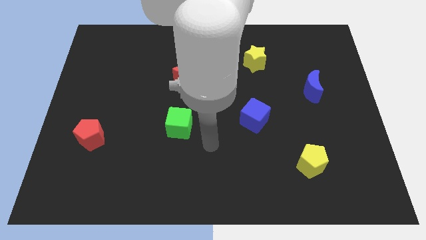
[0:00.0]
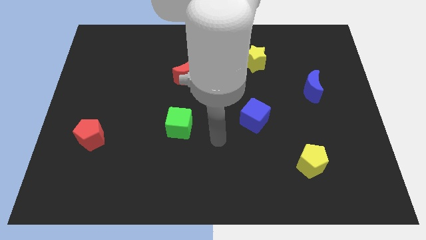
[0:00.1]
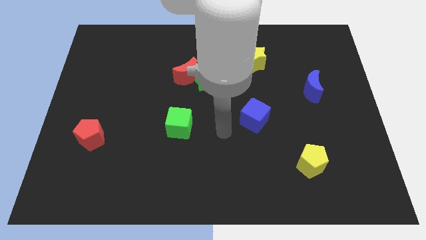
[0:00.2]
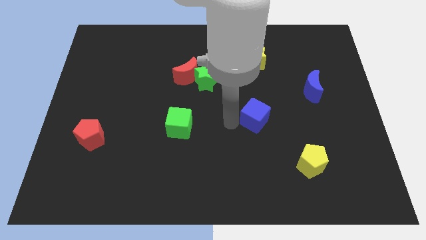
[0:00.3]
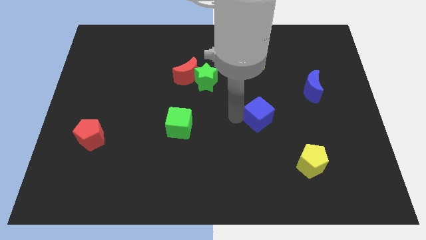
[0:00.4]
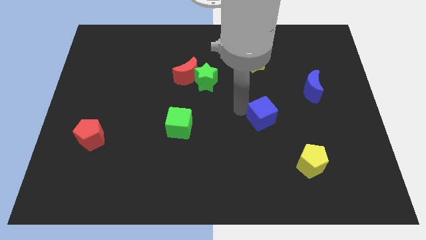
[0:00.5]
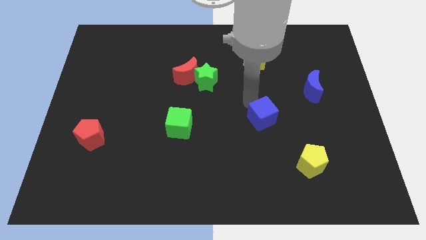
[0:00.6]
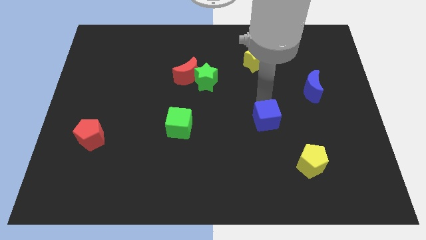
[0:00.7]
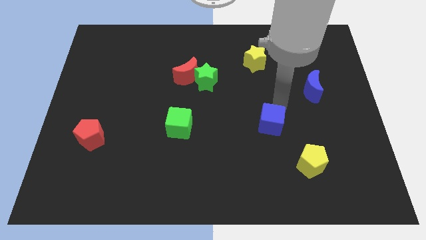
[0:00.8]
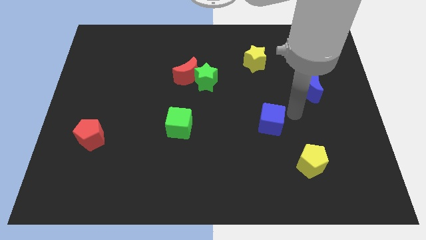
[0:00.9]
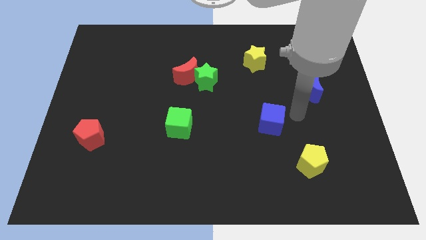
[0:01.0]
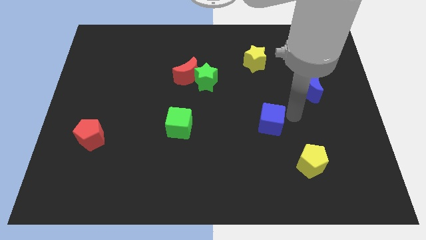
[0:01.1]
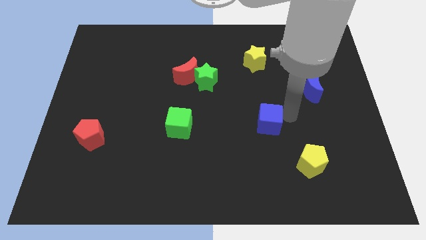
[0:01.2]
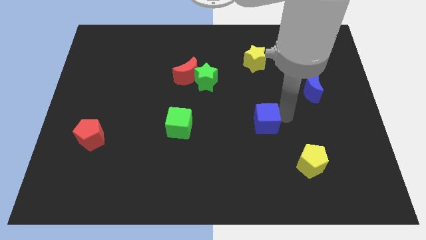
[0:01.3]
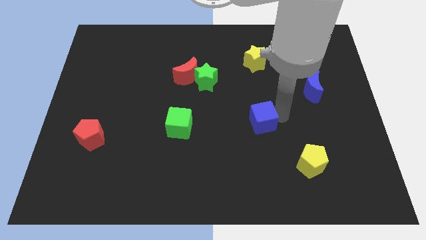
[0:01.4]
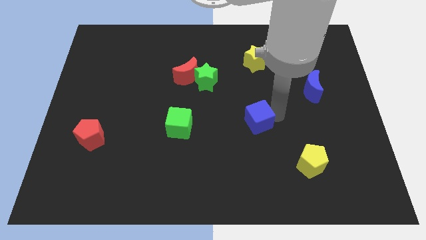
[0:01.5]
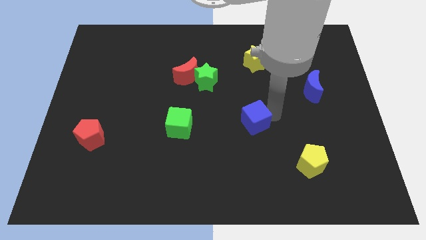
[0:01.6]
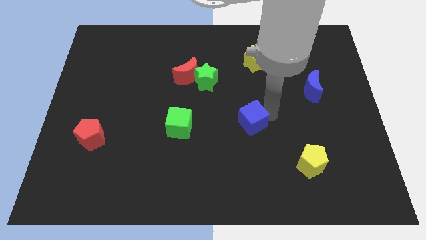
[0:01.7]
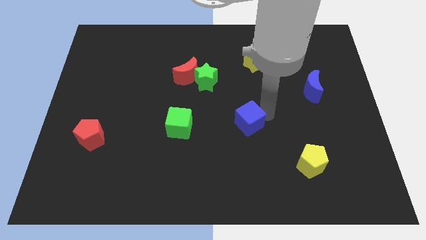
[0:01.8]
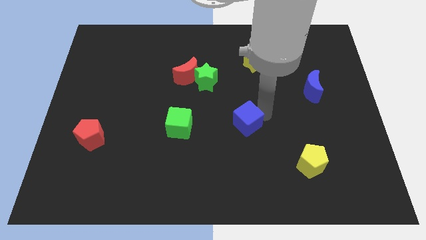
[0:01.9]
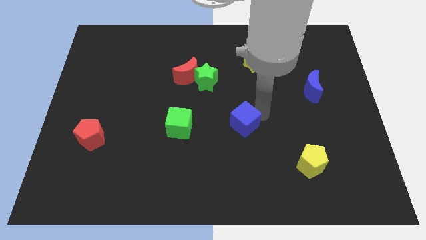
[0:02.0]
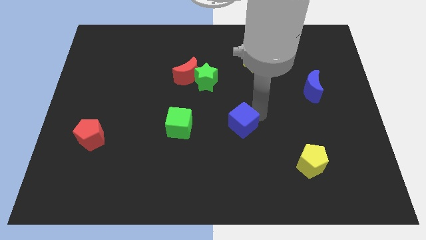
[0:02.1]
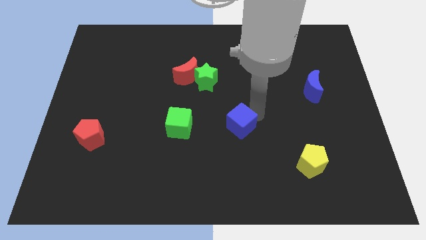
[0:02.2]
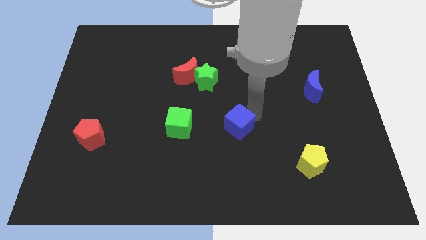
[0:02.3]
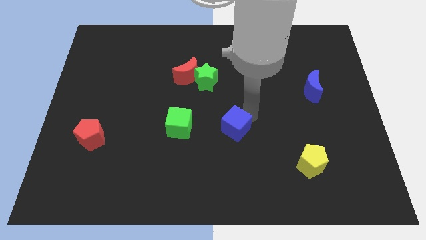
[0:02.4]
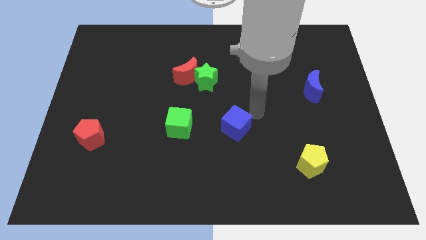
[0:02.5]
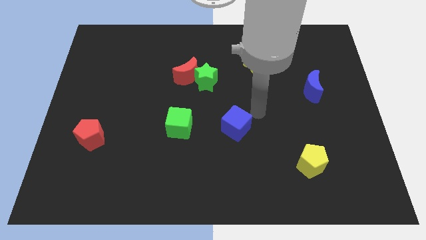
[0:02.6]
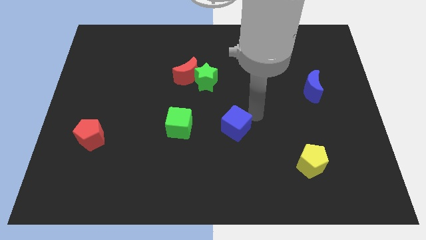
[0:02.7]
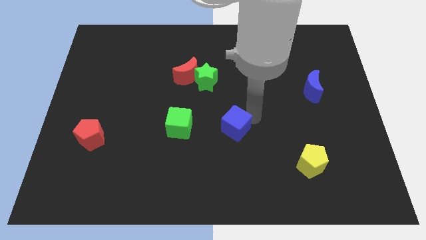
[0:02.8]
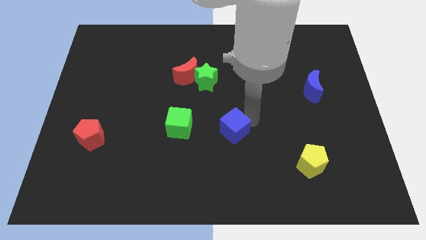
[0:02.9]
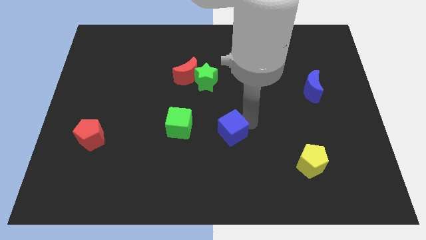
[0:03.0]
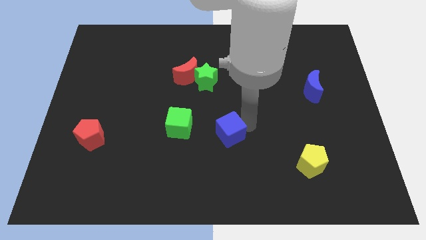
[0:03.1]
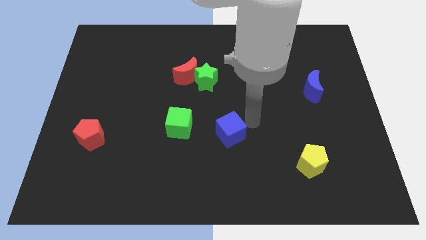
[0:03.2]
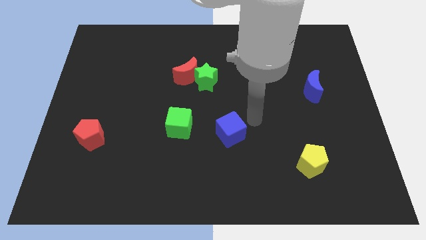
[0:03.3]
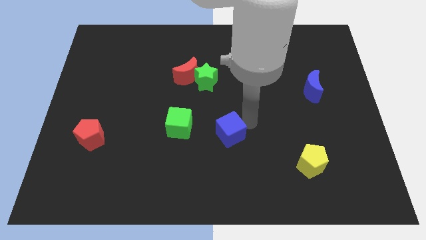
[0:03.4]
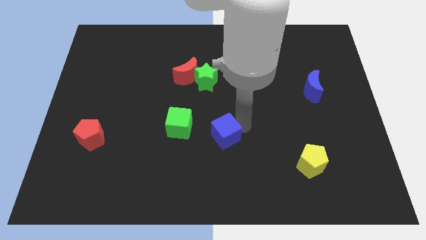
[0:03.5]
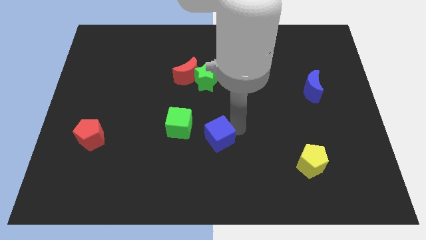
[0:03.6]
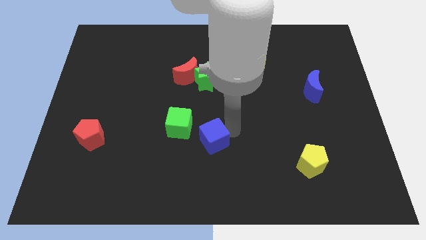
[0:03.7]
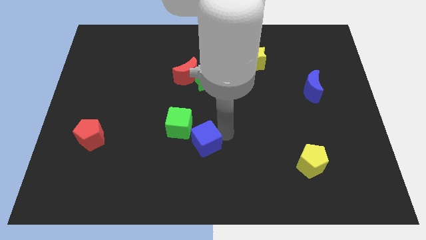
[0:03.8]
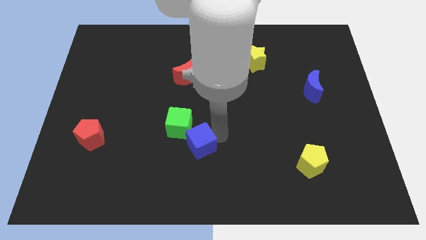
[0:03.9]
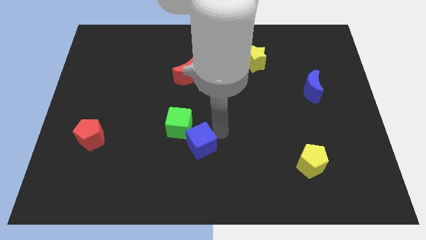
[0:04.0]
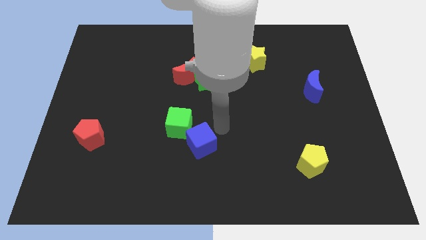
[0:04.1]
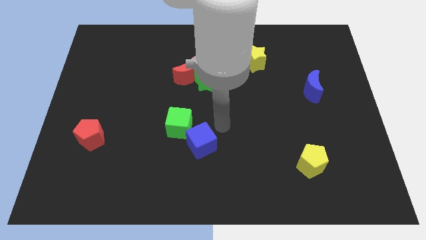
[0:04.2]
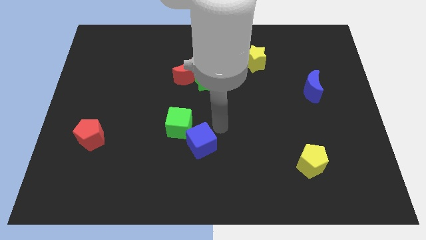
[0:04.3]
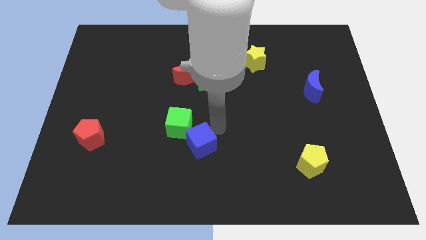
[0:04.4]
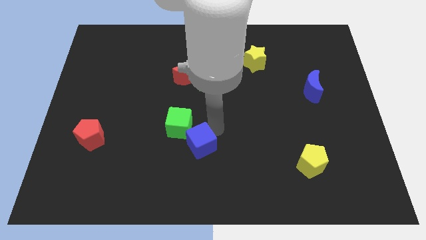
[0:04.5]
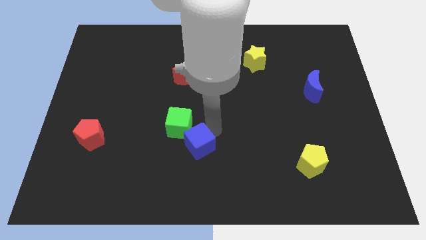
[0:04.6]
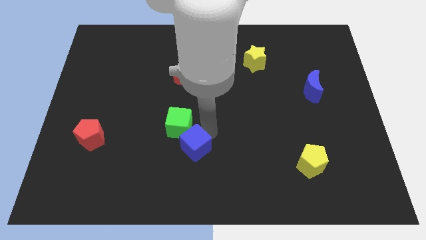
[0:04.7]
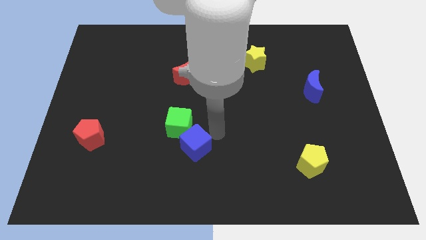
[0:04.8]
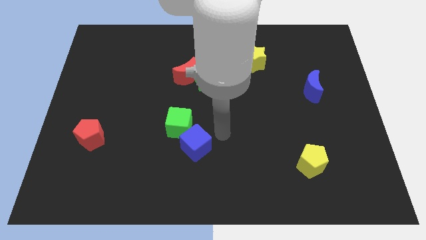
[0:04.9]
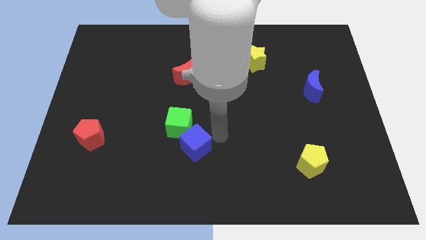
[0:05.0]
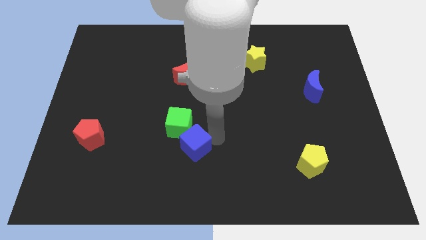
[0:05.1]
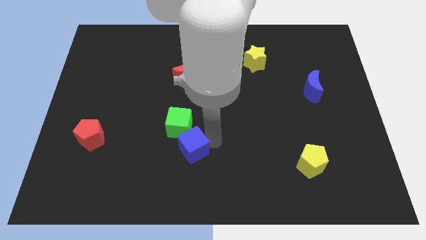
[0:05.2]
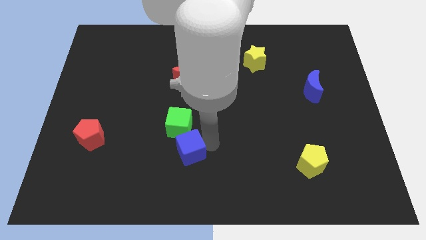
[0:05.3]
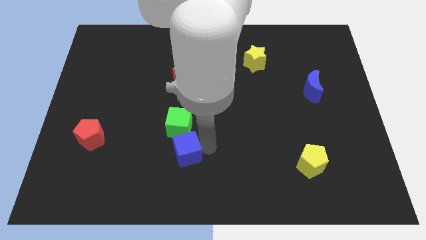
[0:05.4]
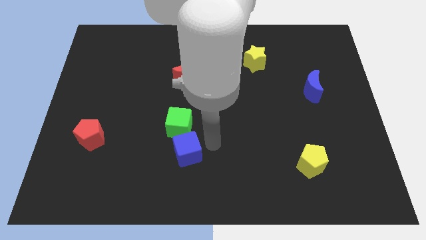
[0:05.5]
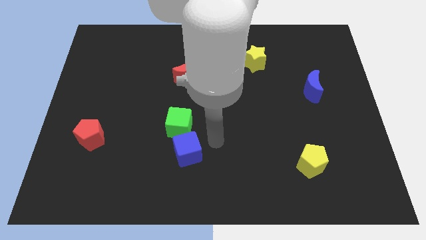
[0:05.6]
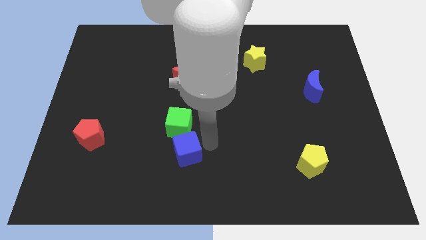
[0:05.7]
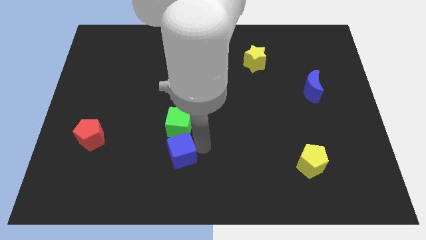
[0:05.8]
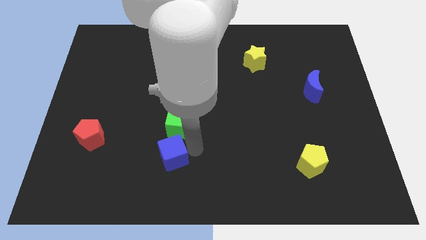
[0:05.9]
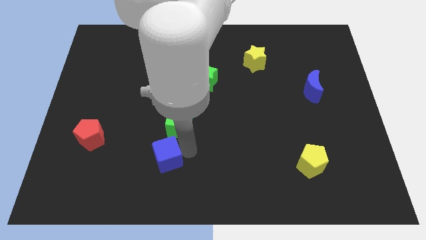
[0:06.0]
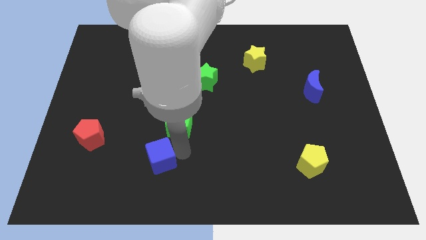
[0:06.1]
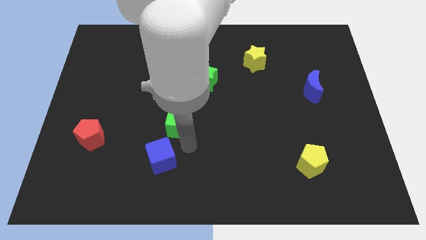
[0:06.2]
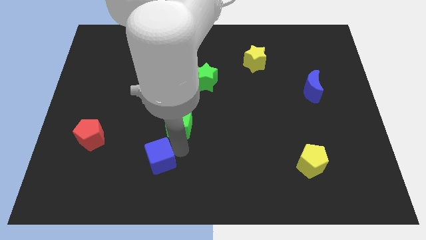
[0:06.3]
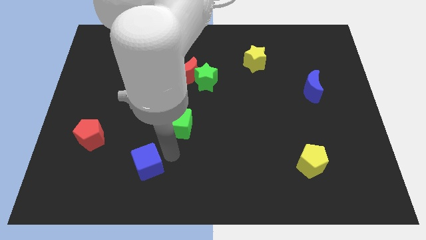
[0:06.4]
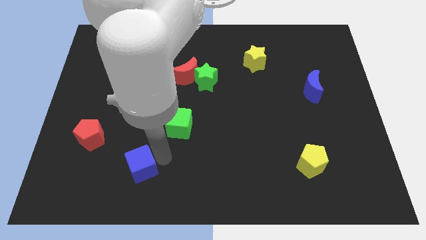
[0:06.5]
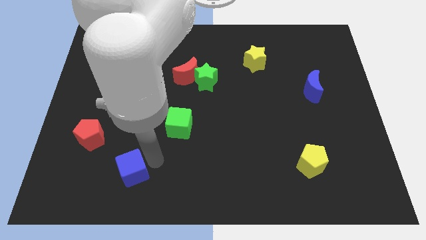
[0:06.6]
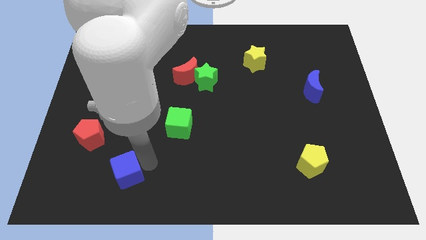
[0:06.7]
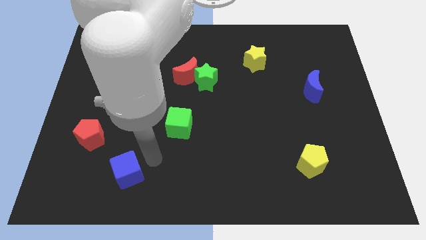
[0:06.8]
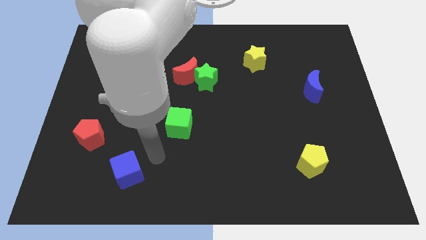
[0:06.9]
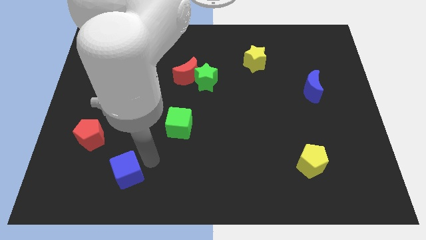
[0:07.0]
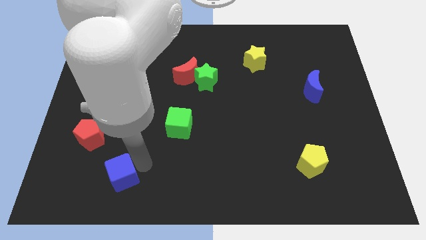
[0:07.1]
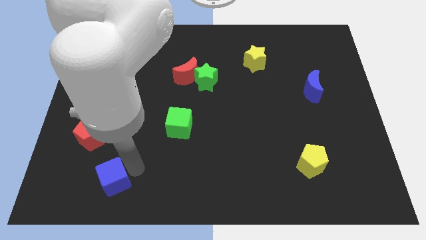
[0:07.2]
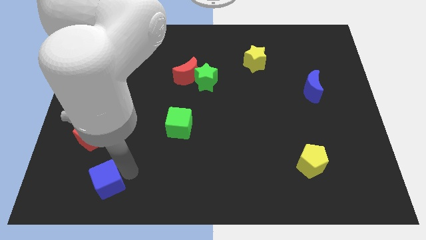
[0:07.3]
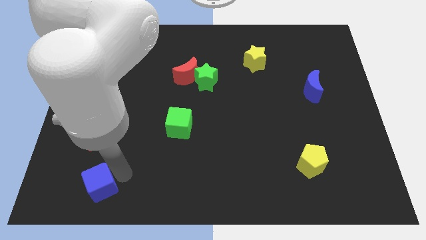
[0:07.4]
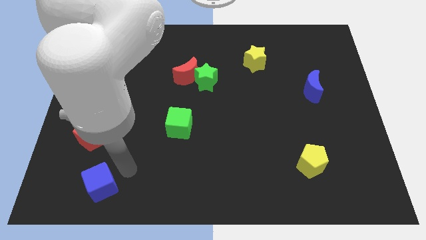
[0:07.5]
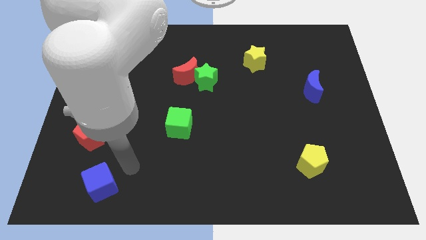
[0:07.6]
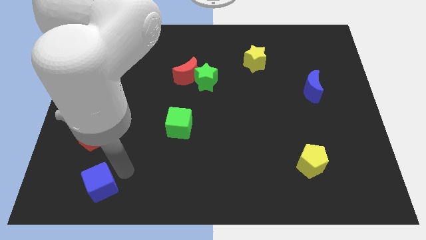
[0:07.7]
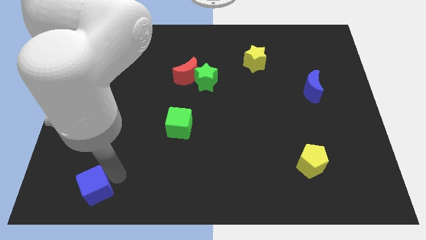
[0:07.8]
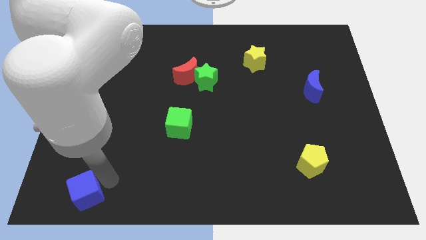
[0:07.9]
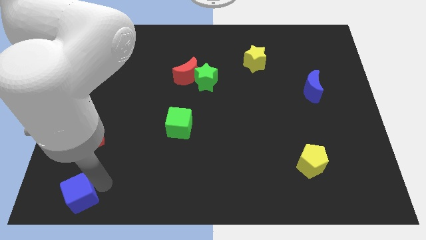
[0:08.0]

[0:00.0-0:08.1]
move the blue cube to the bottom left
